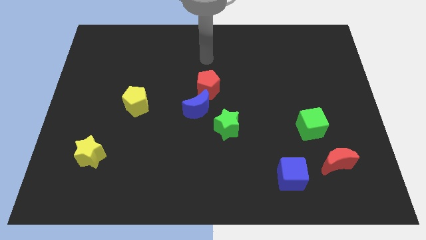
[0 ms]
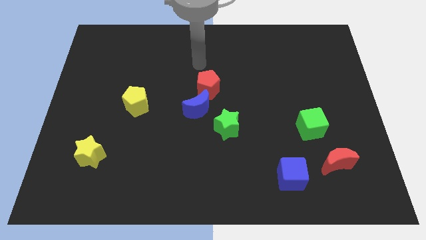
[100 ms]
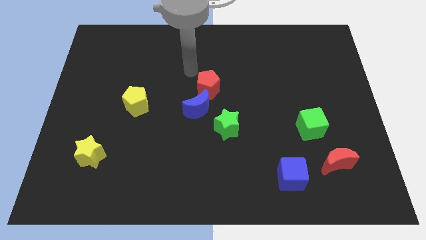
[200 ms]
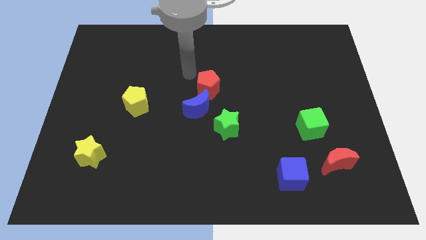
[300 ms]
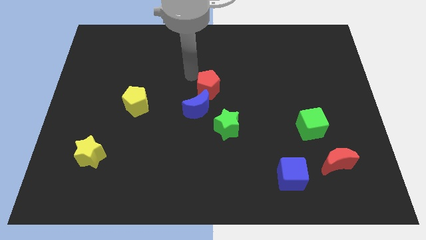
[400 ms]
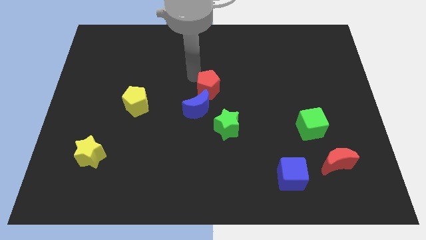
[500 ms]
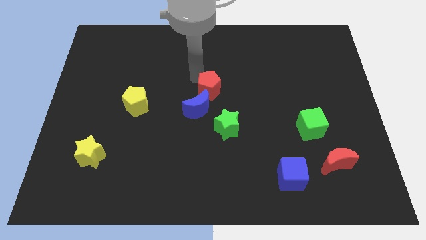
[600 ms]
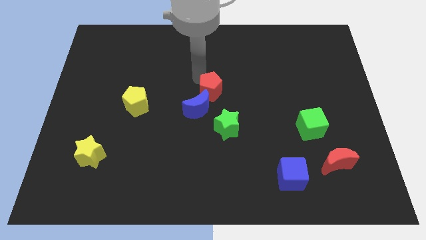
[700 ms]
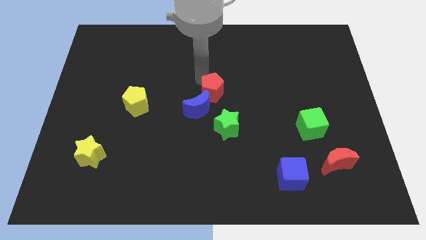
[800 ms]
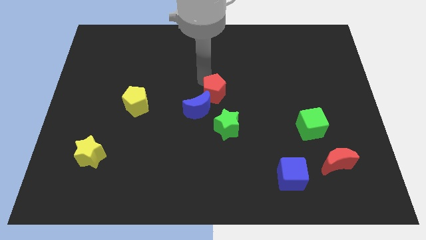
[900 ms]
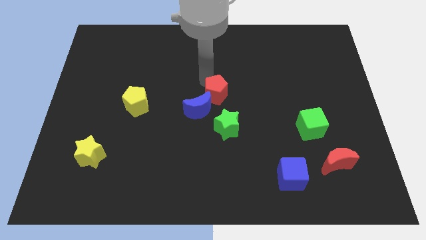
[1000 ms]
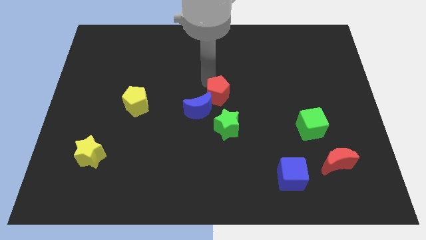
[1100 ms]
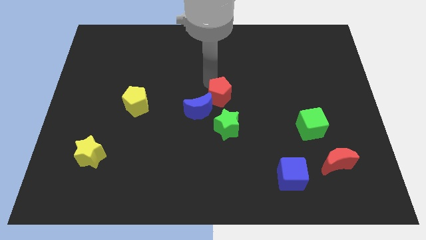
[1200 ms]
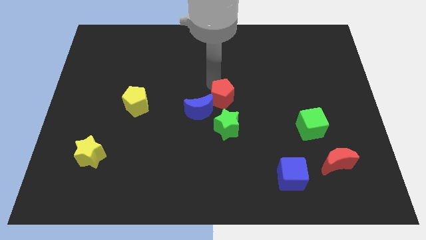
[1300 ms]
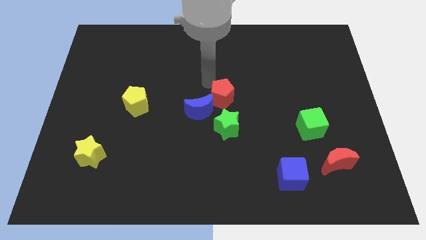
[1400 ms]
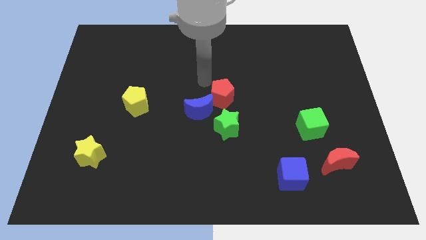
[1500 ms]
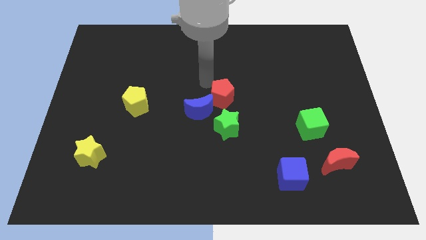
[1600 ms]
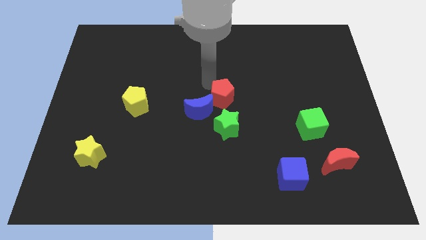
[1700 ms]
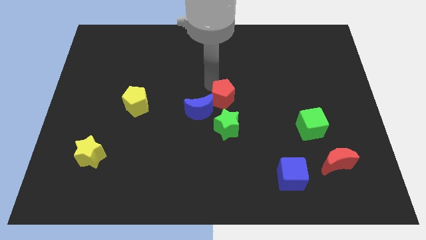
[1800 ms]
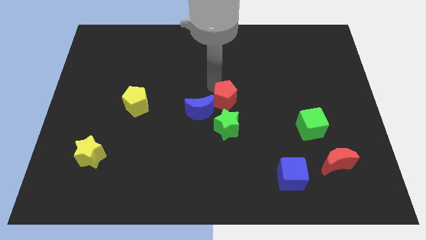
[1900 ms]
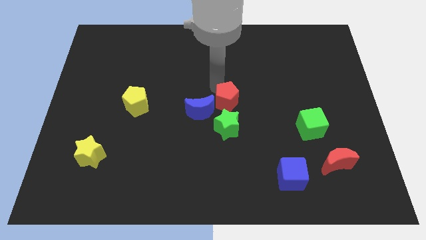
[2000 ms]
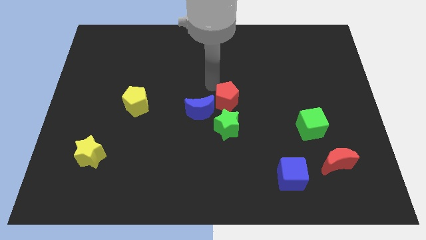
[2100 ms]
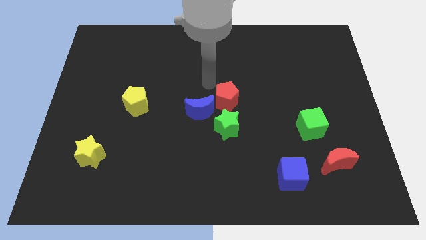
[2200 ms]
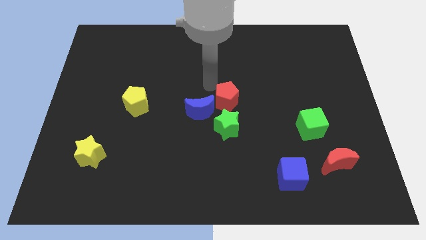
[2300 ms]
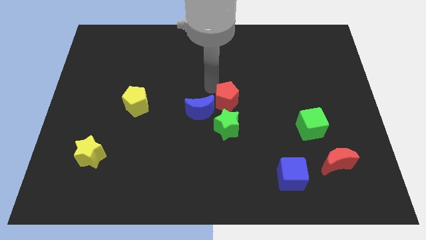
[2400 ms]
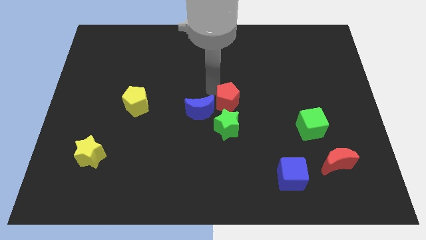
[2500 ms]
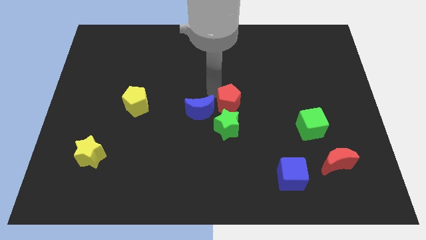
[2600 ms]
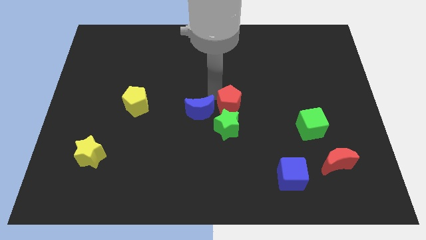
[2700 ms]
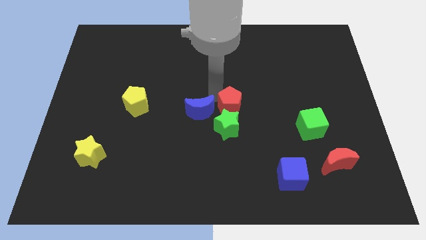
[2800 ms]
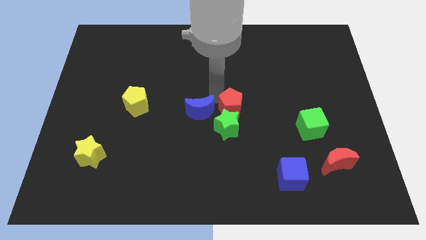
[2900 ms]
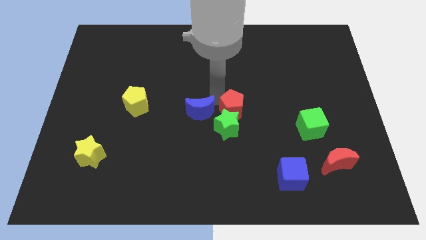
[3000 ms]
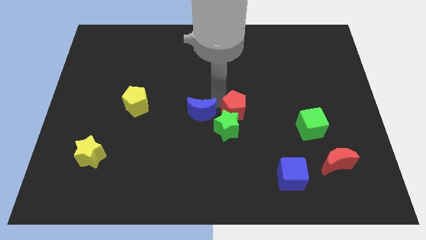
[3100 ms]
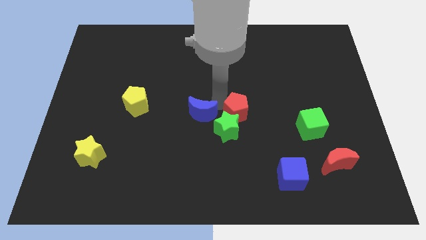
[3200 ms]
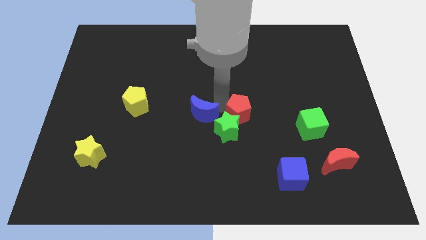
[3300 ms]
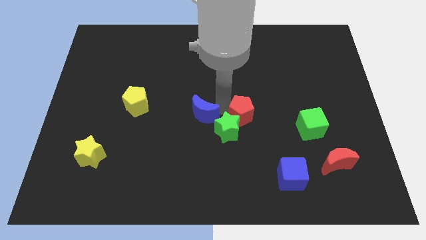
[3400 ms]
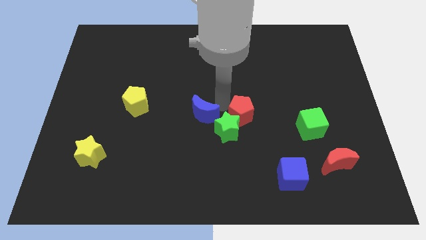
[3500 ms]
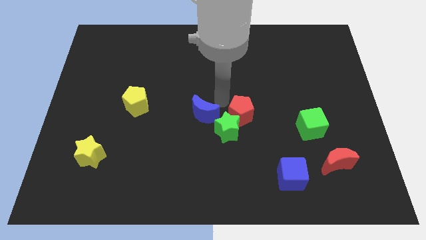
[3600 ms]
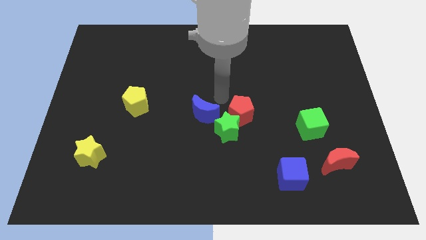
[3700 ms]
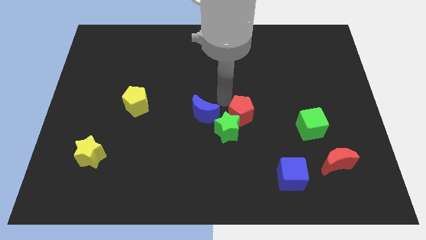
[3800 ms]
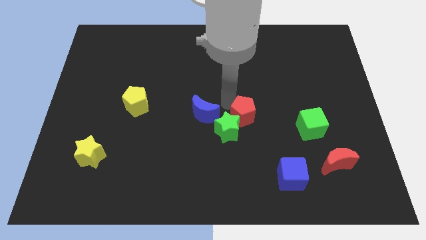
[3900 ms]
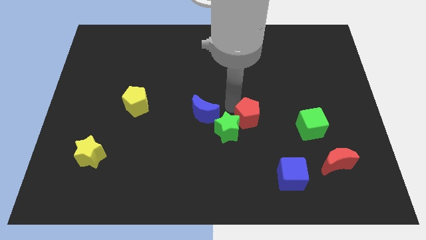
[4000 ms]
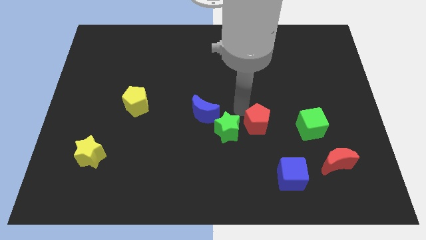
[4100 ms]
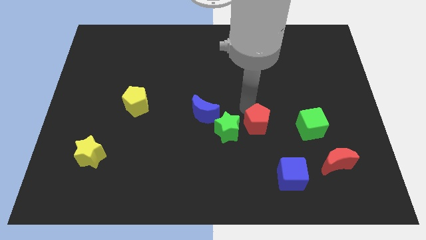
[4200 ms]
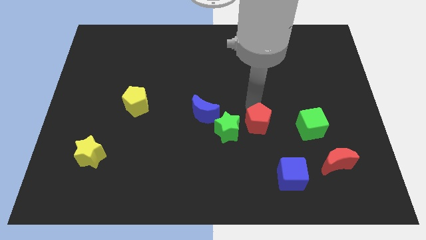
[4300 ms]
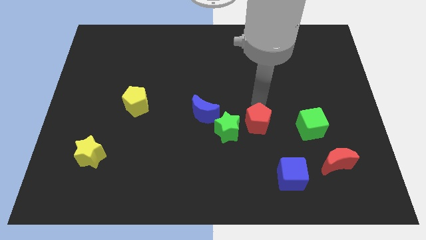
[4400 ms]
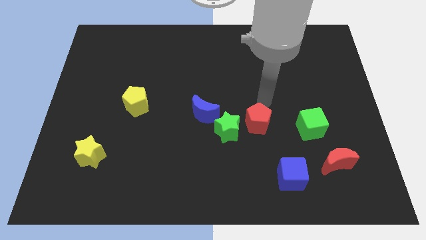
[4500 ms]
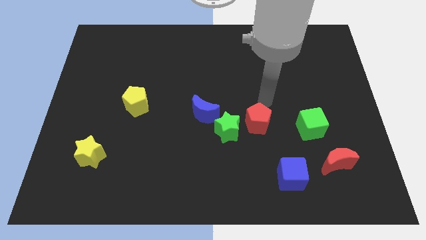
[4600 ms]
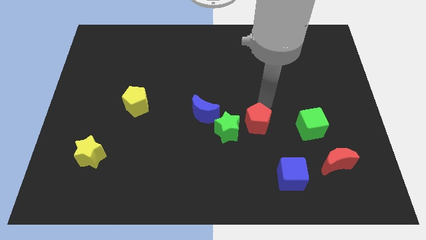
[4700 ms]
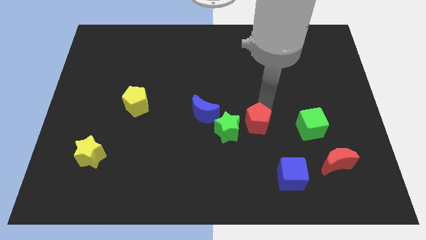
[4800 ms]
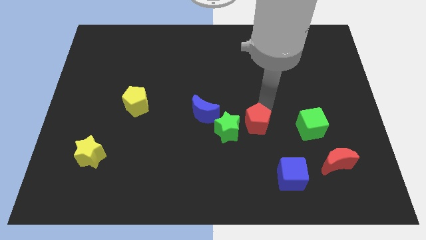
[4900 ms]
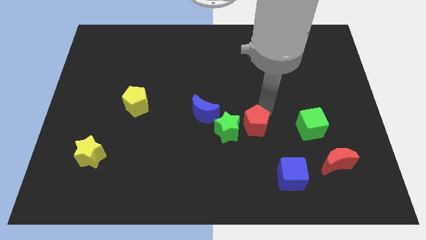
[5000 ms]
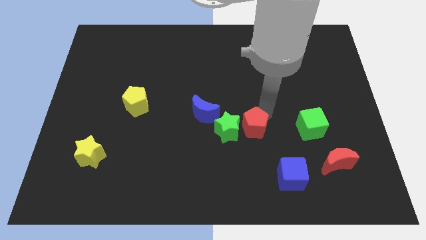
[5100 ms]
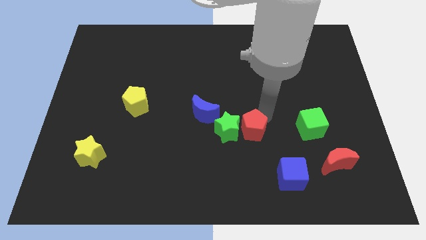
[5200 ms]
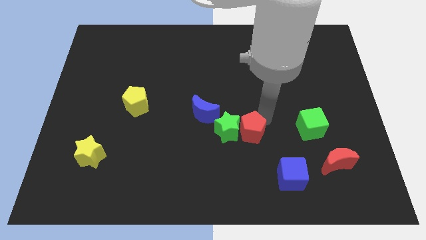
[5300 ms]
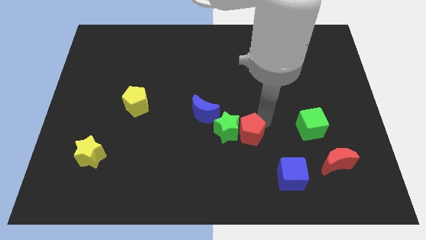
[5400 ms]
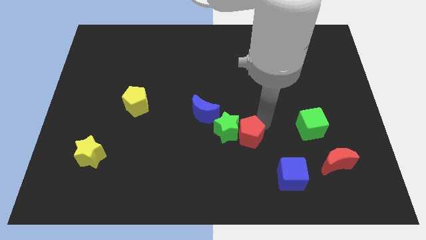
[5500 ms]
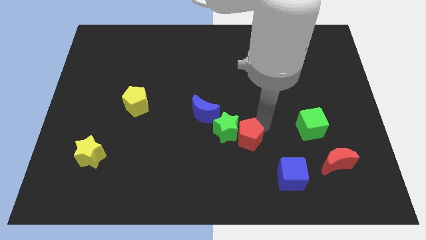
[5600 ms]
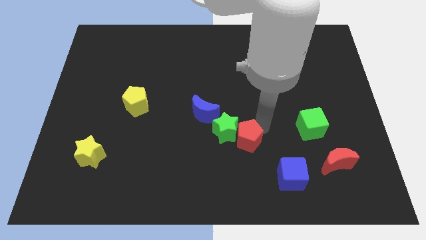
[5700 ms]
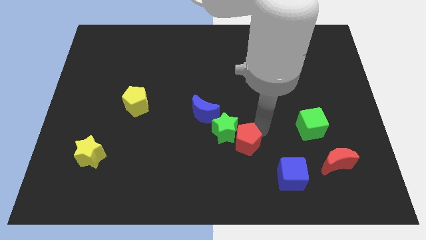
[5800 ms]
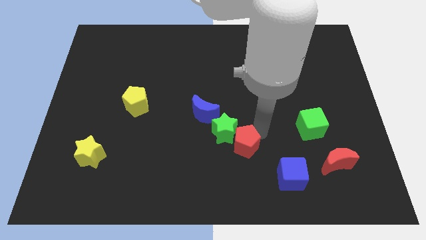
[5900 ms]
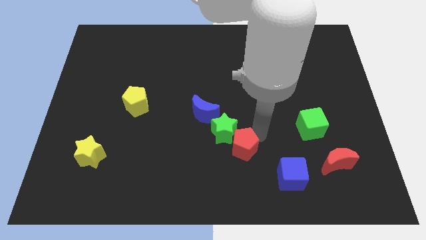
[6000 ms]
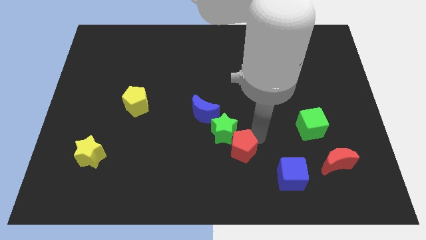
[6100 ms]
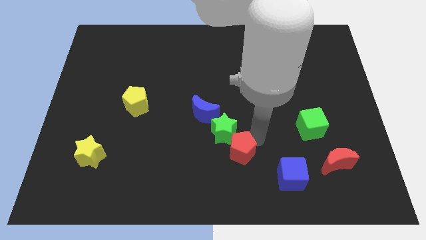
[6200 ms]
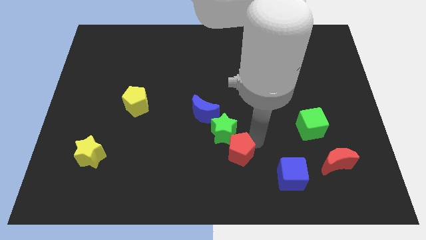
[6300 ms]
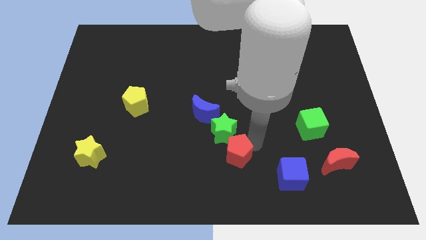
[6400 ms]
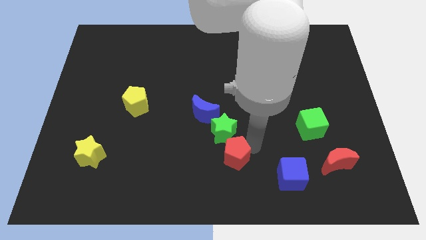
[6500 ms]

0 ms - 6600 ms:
push the red pentagon to the bottom
